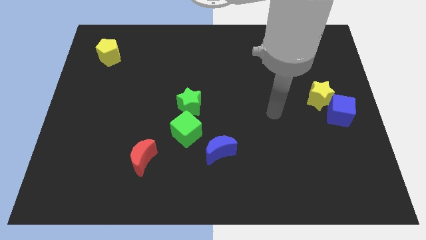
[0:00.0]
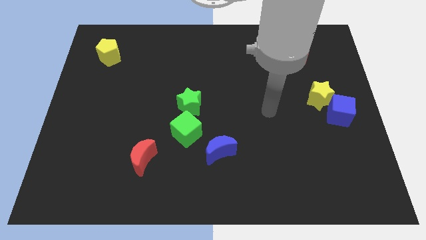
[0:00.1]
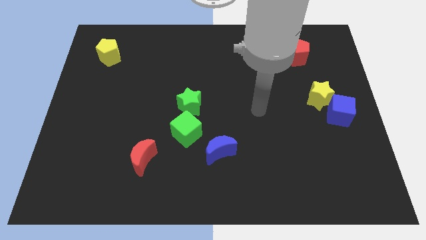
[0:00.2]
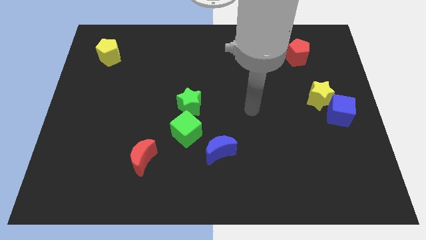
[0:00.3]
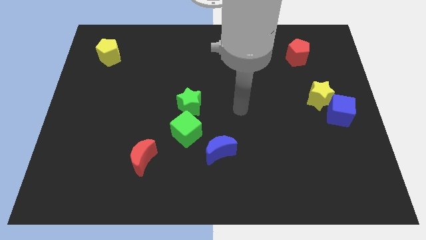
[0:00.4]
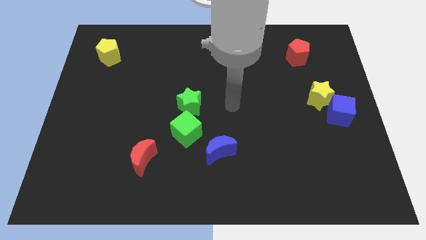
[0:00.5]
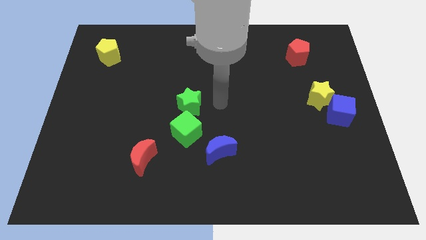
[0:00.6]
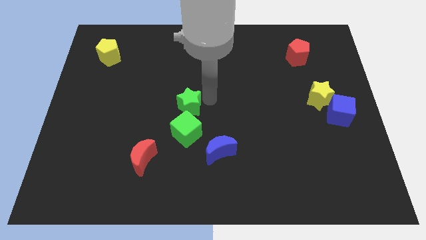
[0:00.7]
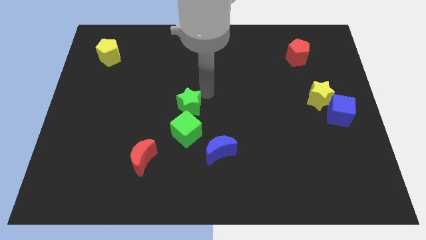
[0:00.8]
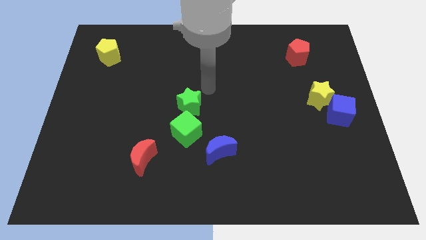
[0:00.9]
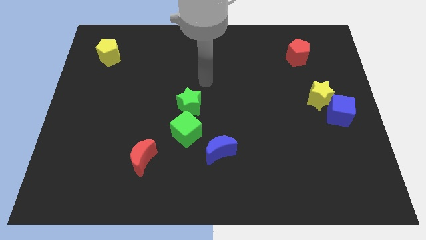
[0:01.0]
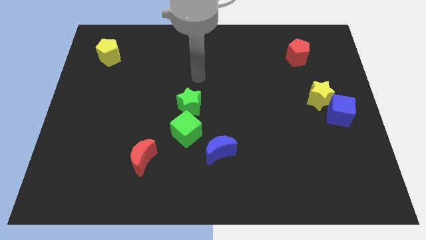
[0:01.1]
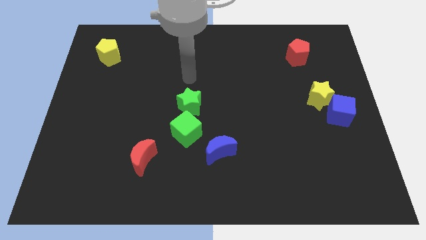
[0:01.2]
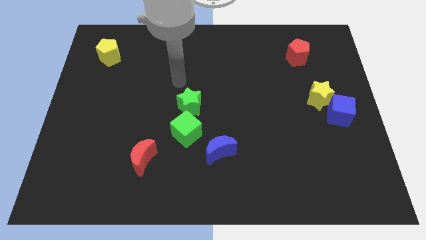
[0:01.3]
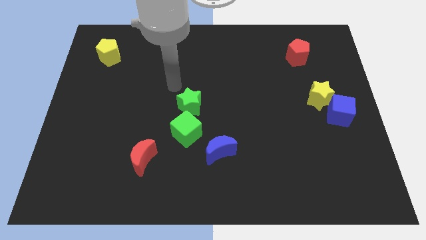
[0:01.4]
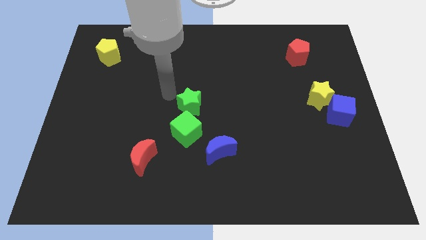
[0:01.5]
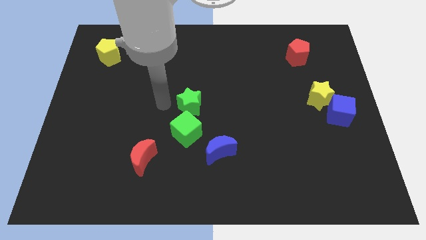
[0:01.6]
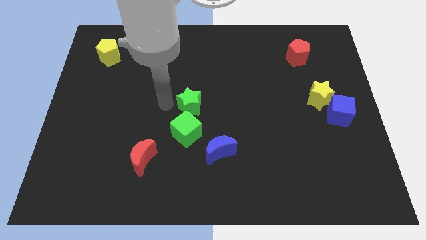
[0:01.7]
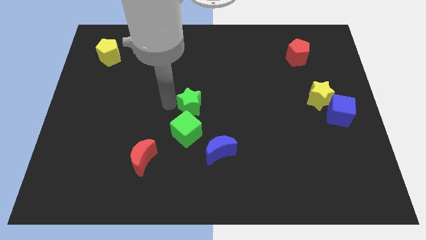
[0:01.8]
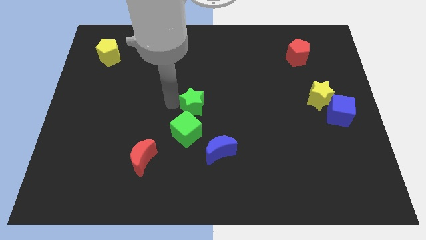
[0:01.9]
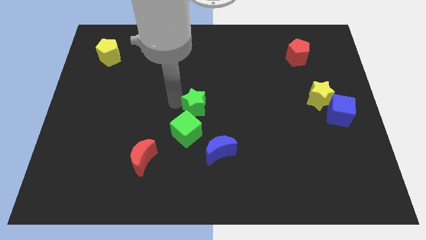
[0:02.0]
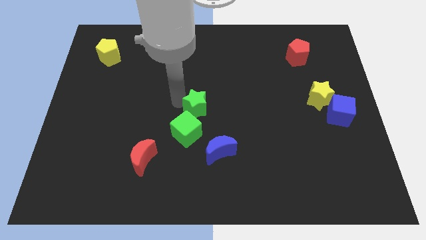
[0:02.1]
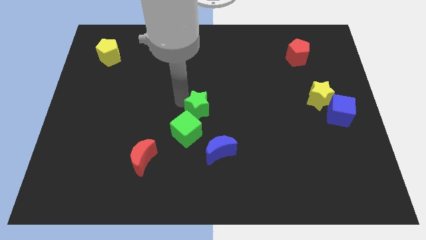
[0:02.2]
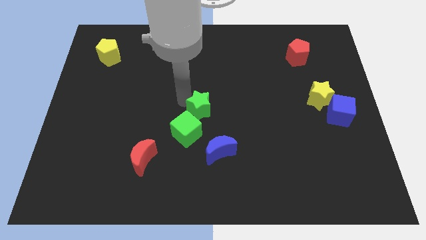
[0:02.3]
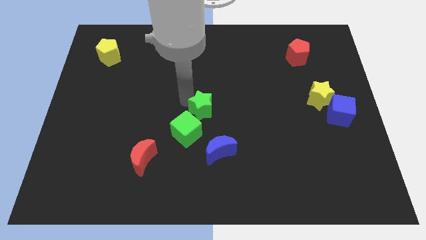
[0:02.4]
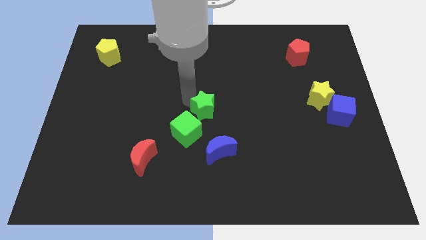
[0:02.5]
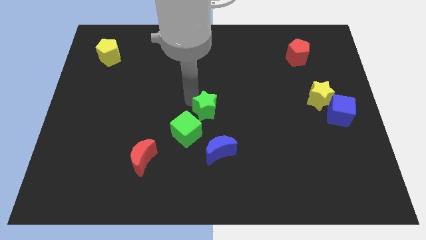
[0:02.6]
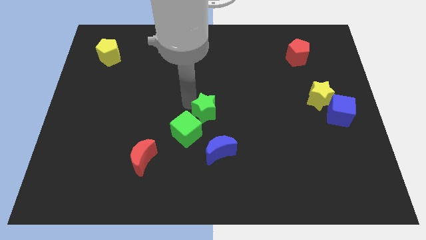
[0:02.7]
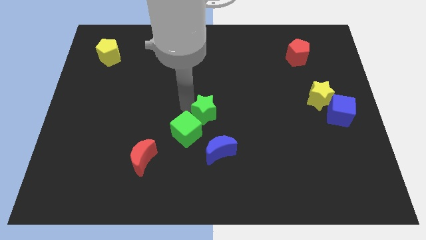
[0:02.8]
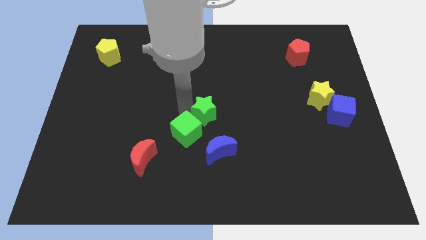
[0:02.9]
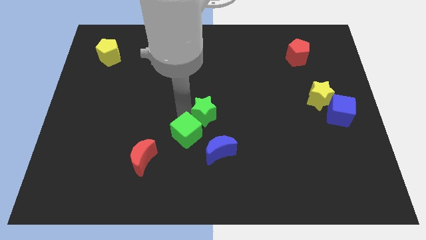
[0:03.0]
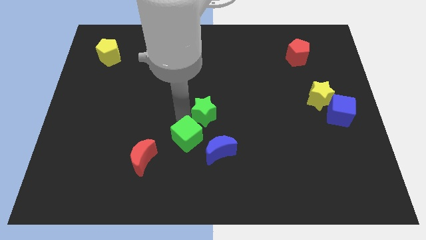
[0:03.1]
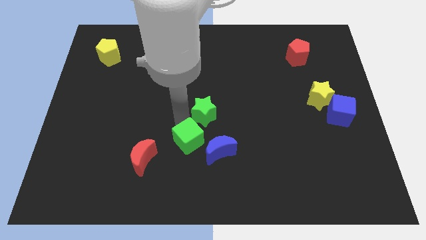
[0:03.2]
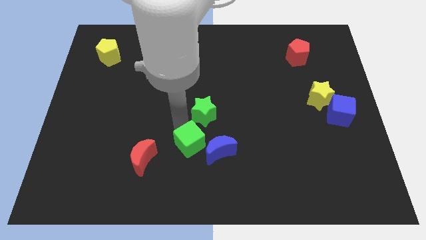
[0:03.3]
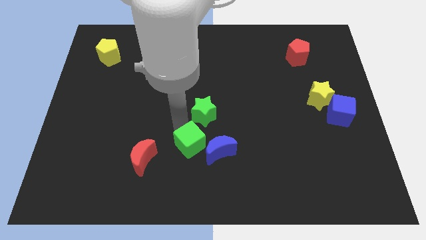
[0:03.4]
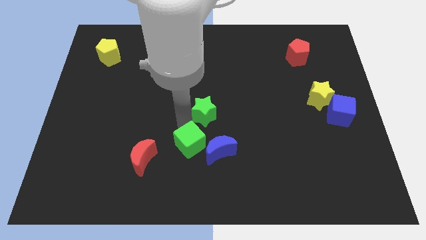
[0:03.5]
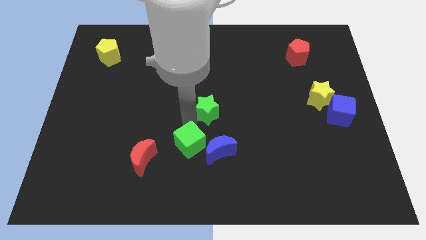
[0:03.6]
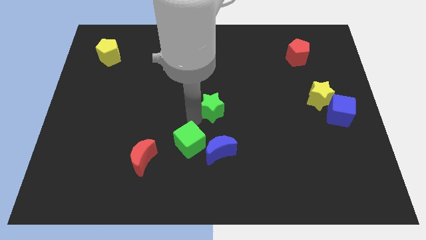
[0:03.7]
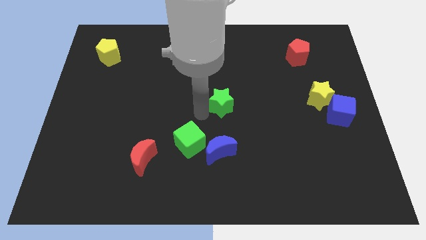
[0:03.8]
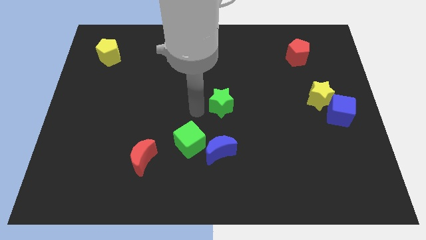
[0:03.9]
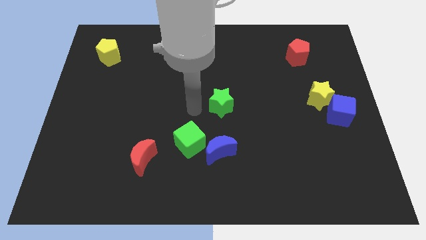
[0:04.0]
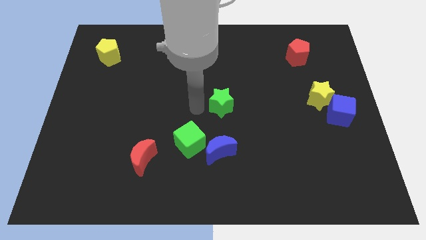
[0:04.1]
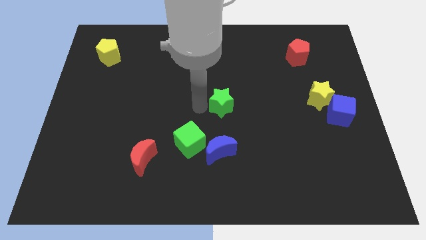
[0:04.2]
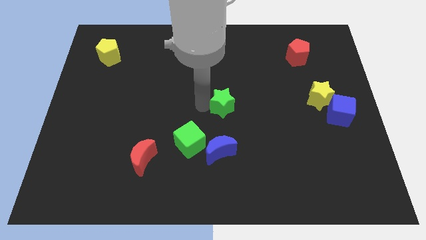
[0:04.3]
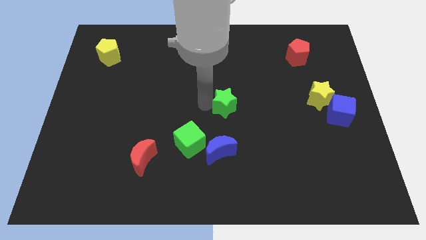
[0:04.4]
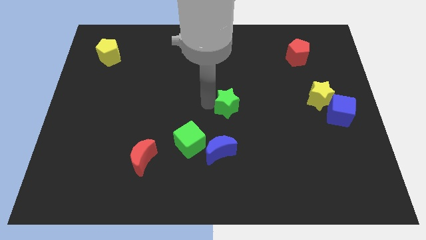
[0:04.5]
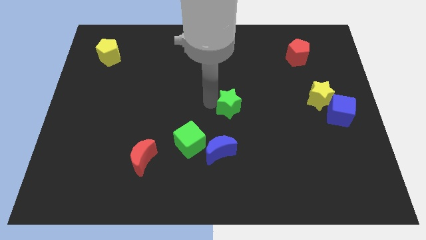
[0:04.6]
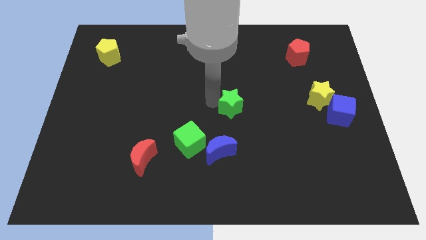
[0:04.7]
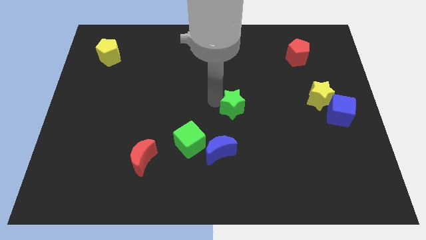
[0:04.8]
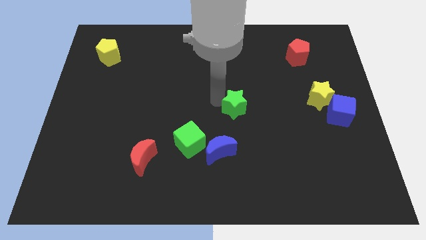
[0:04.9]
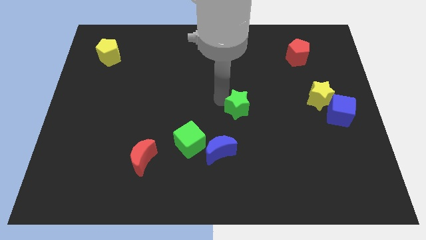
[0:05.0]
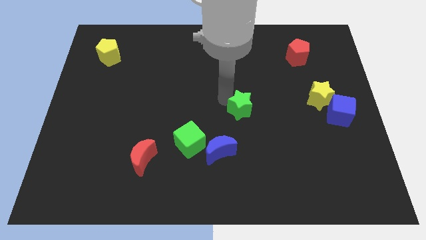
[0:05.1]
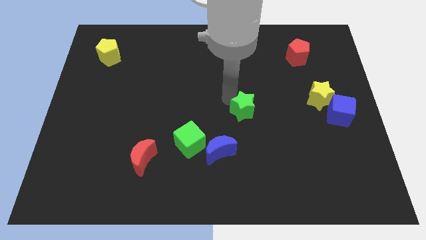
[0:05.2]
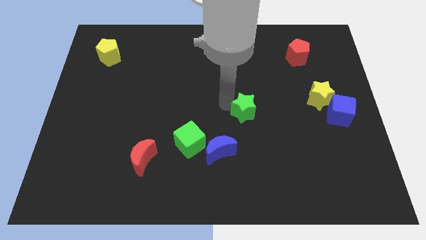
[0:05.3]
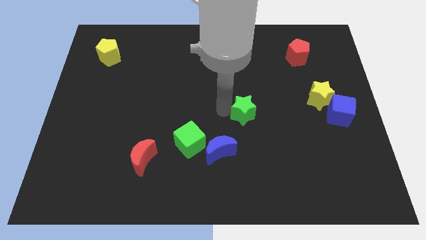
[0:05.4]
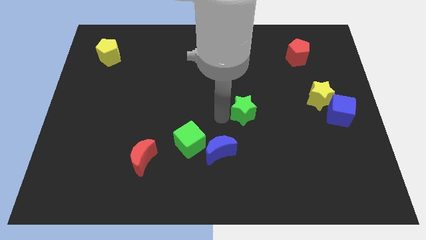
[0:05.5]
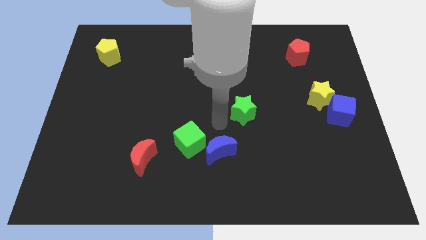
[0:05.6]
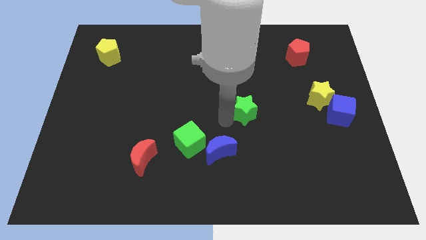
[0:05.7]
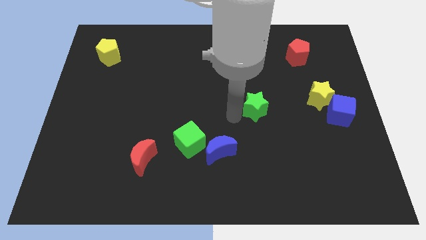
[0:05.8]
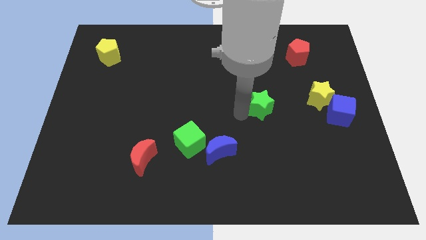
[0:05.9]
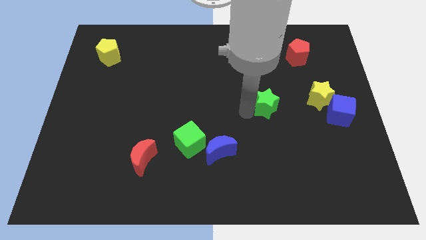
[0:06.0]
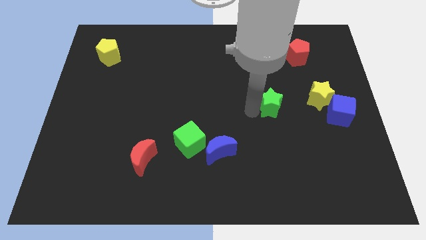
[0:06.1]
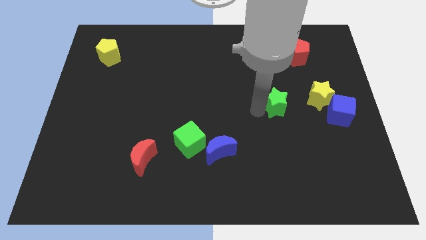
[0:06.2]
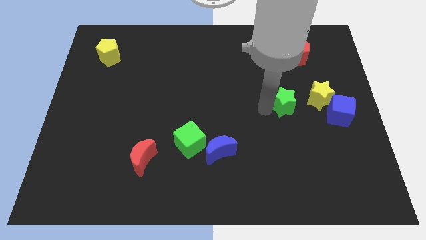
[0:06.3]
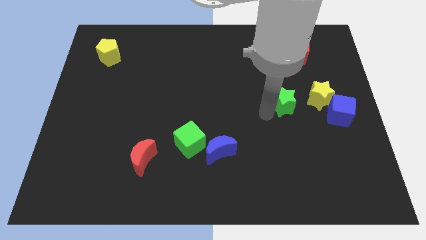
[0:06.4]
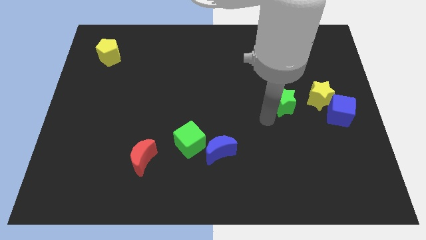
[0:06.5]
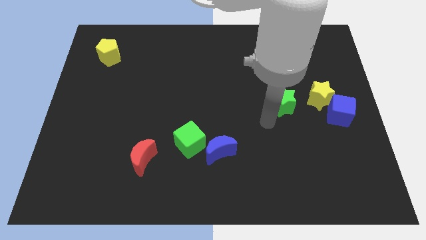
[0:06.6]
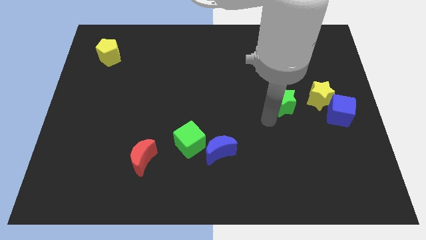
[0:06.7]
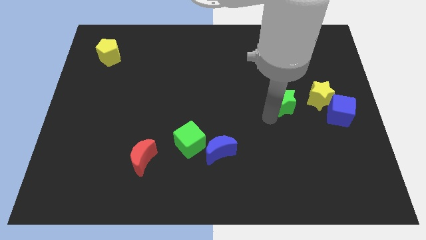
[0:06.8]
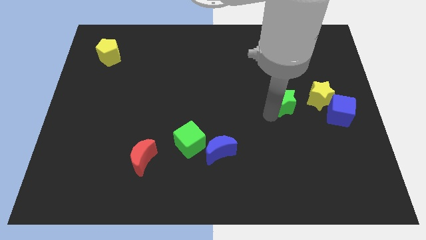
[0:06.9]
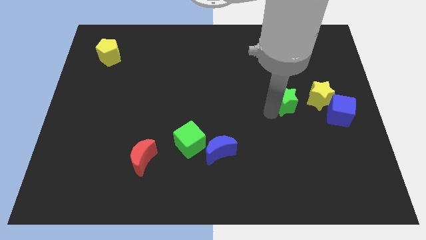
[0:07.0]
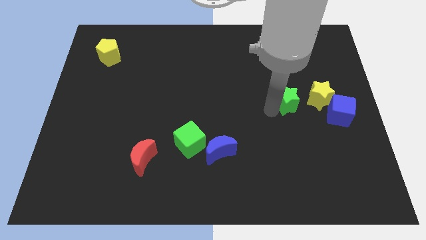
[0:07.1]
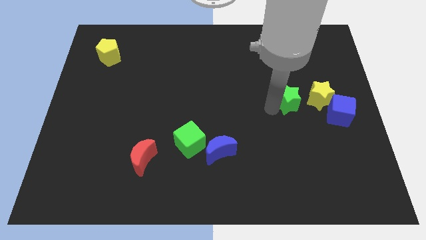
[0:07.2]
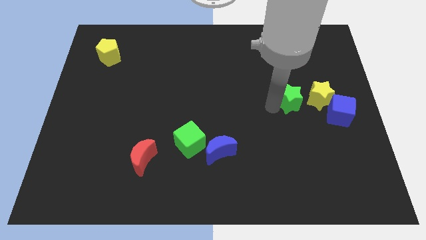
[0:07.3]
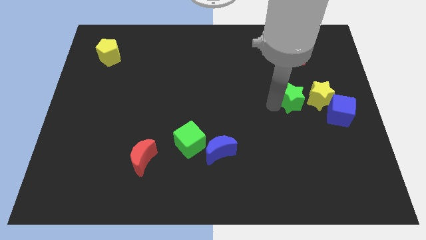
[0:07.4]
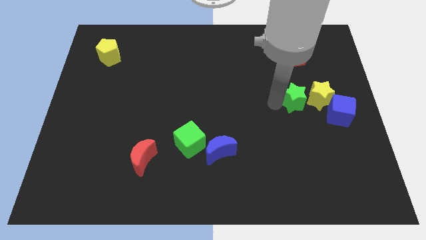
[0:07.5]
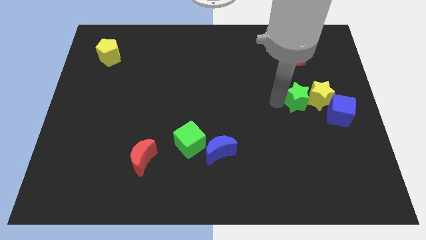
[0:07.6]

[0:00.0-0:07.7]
move the green star to the top left of the blue cube
